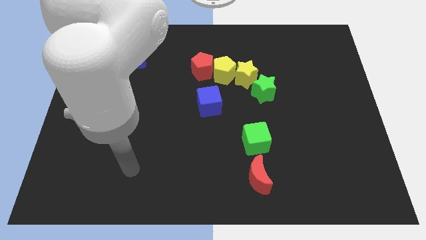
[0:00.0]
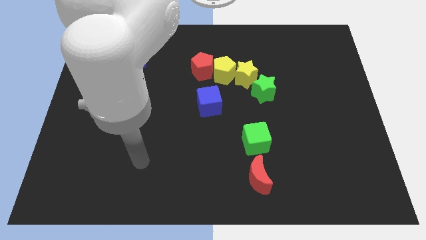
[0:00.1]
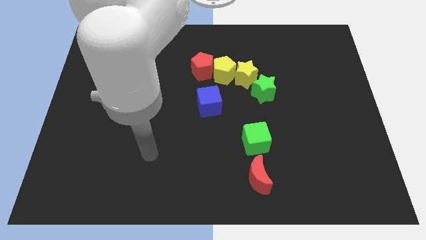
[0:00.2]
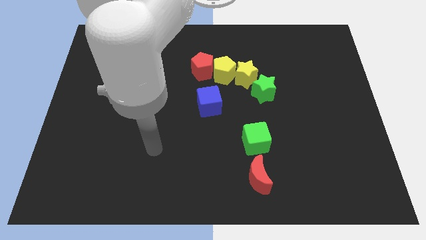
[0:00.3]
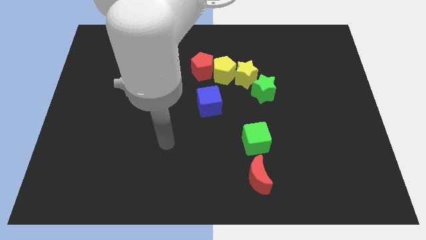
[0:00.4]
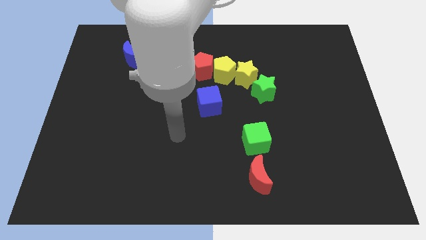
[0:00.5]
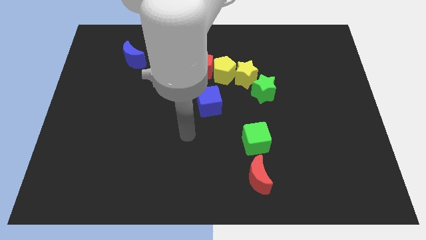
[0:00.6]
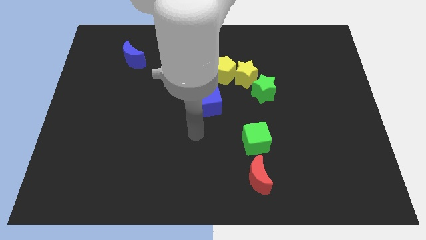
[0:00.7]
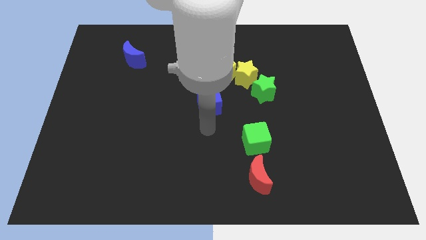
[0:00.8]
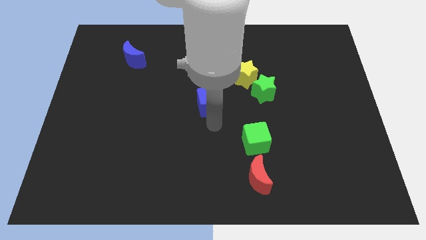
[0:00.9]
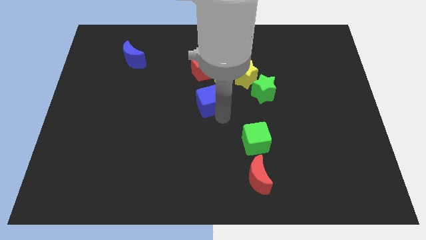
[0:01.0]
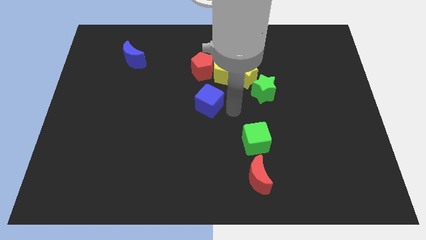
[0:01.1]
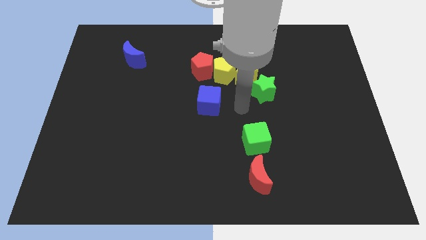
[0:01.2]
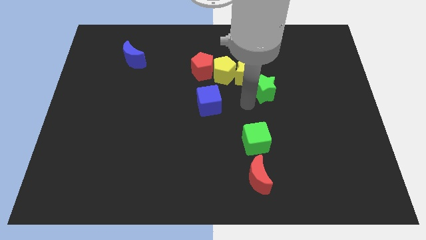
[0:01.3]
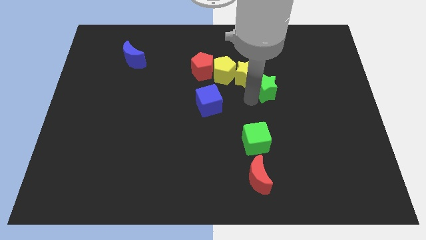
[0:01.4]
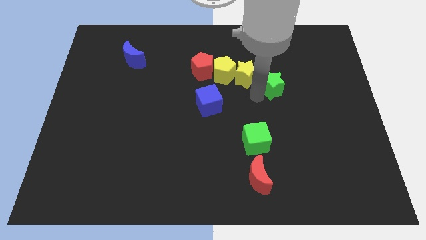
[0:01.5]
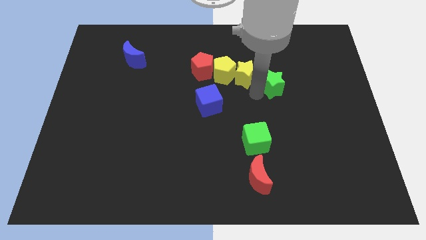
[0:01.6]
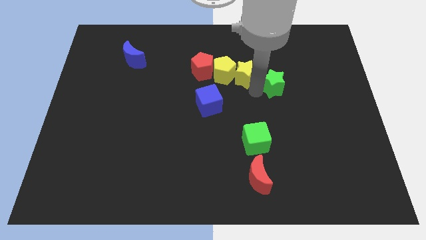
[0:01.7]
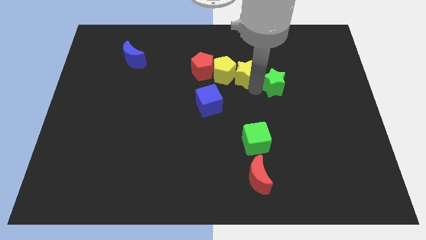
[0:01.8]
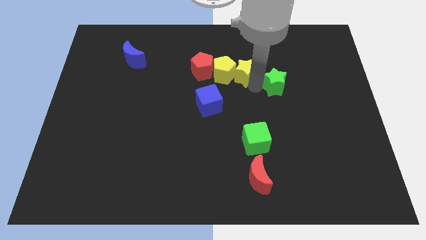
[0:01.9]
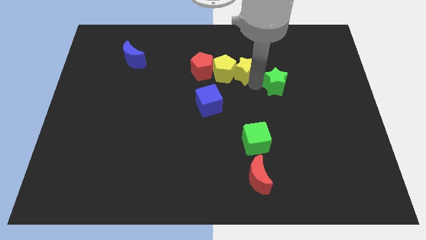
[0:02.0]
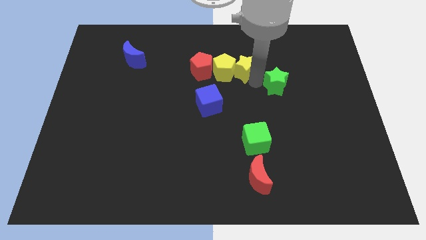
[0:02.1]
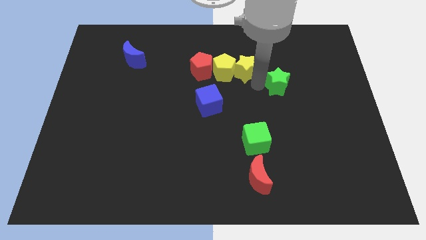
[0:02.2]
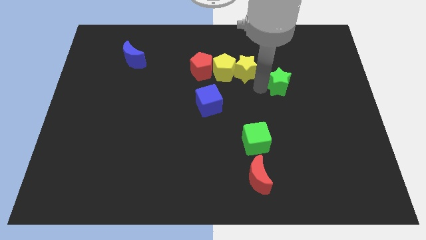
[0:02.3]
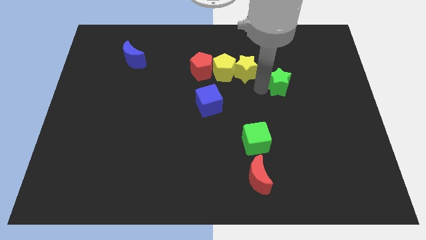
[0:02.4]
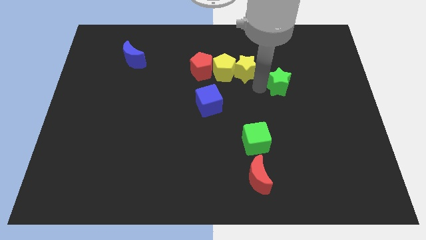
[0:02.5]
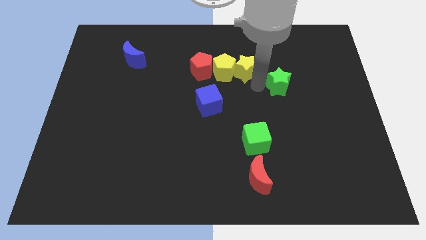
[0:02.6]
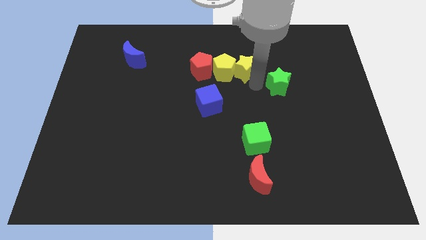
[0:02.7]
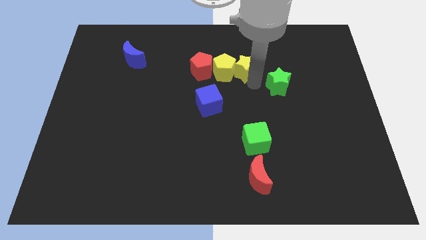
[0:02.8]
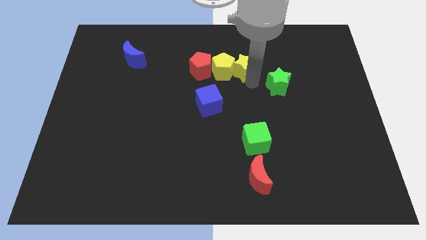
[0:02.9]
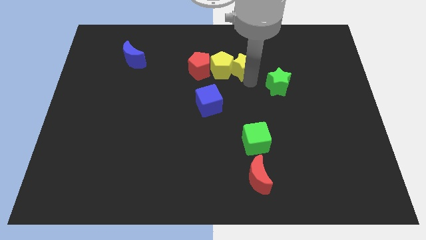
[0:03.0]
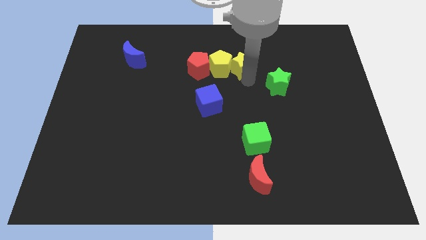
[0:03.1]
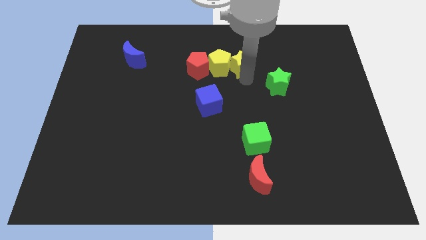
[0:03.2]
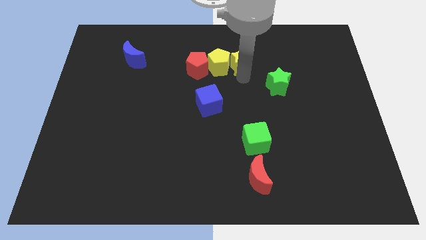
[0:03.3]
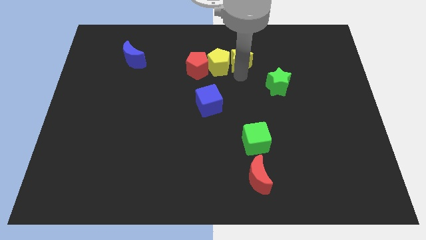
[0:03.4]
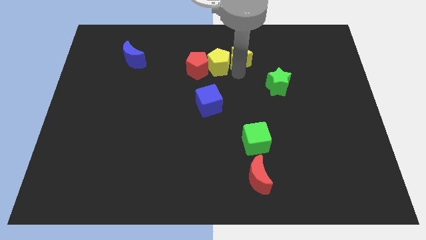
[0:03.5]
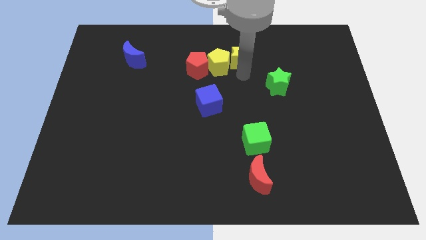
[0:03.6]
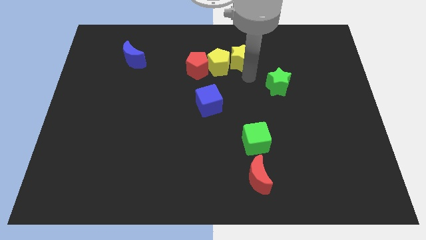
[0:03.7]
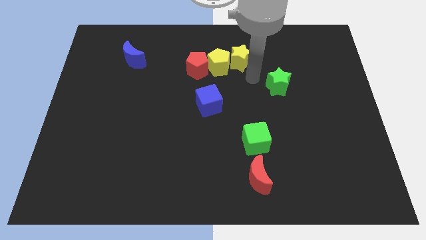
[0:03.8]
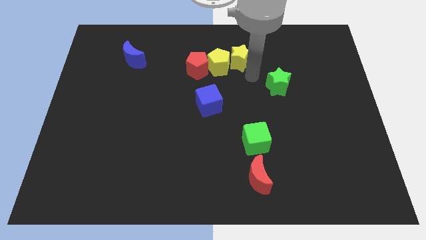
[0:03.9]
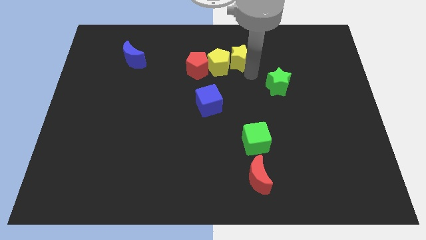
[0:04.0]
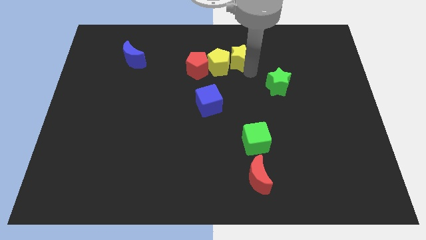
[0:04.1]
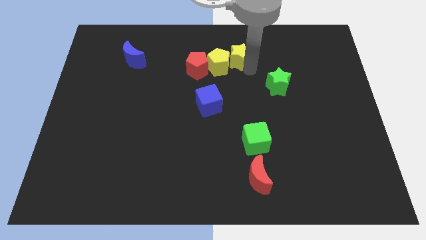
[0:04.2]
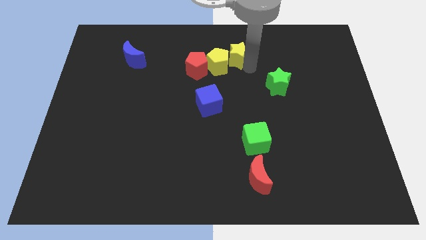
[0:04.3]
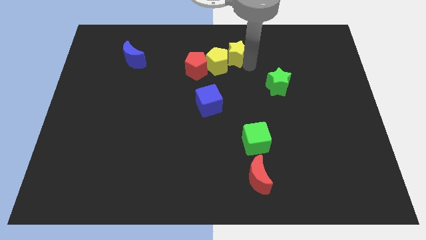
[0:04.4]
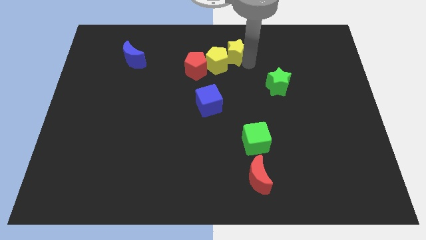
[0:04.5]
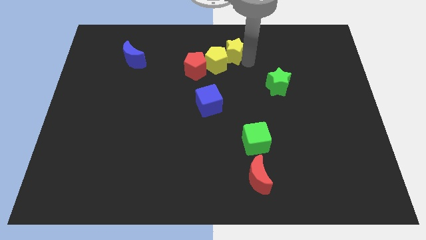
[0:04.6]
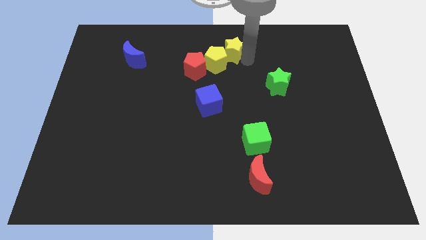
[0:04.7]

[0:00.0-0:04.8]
put the yellow star to the towards your base

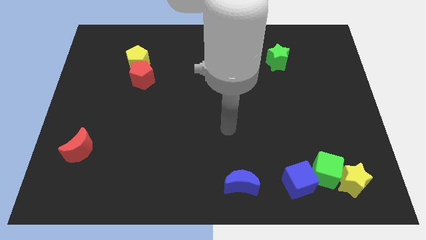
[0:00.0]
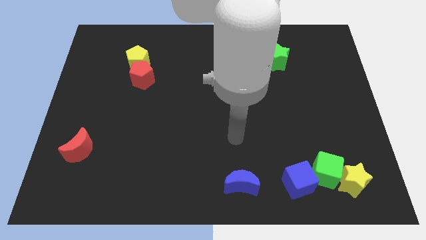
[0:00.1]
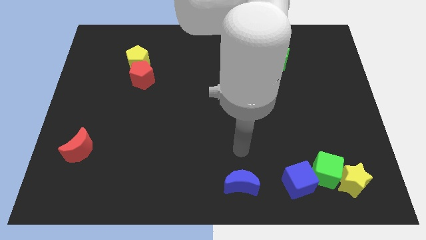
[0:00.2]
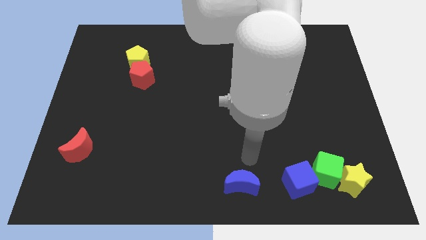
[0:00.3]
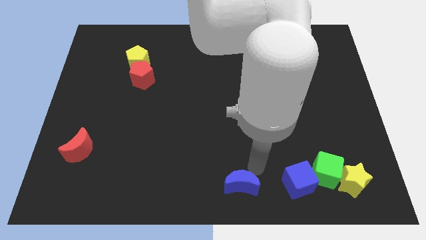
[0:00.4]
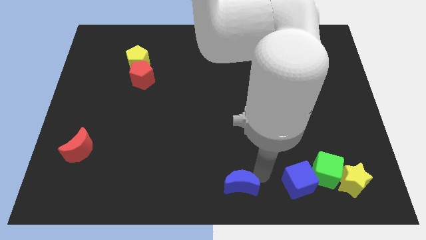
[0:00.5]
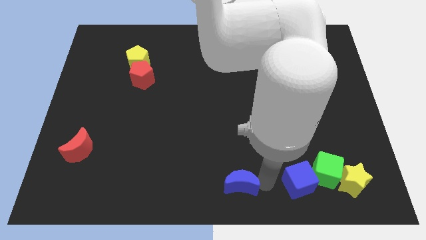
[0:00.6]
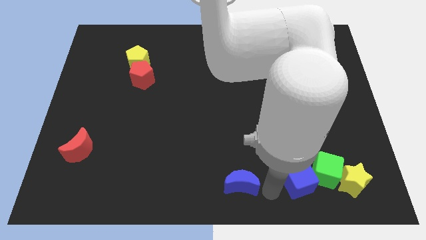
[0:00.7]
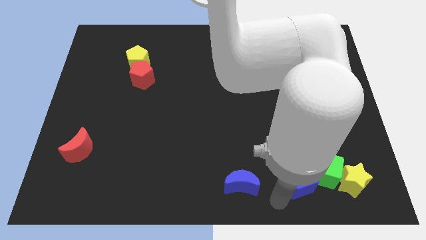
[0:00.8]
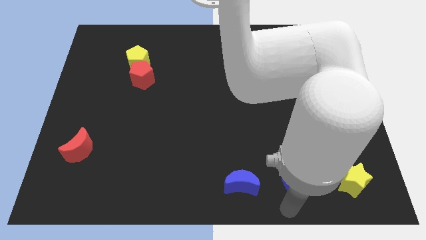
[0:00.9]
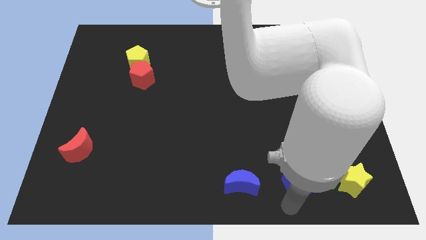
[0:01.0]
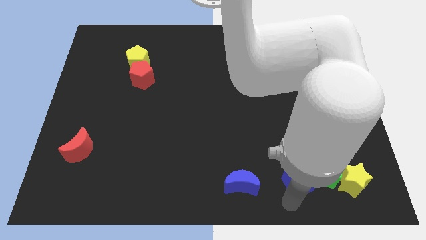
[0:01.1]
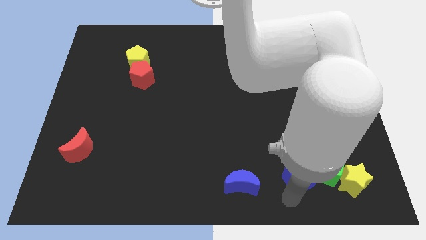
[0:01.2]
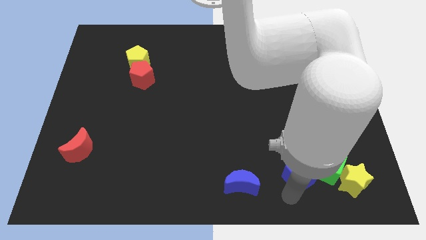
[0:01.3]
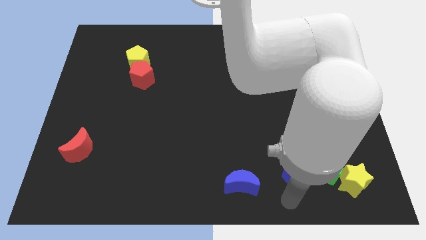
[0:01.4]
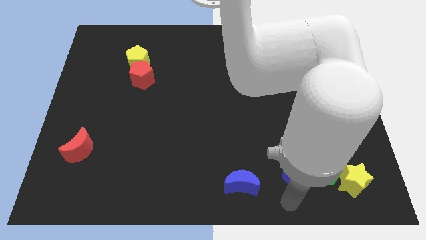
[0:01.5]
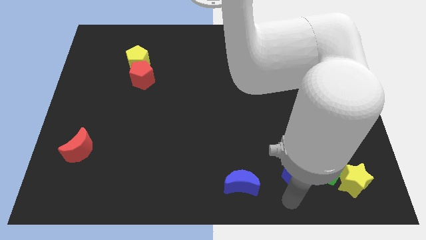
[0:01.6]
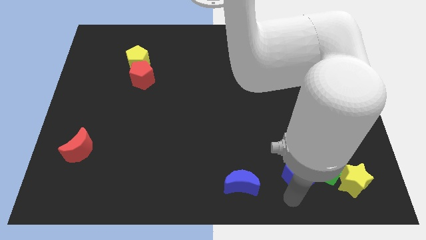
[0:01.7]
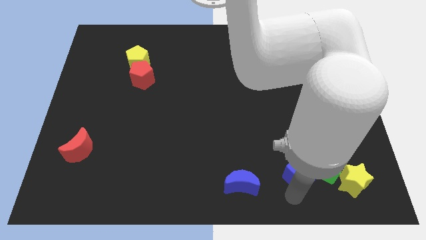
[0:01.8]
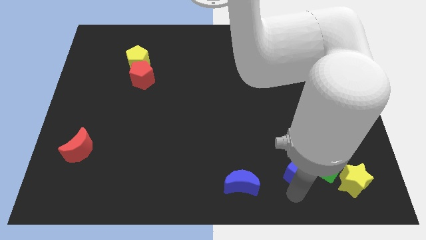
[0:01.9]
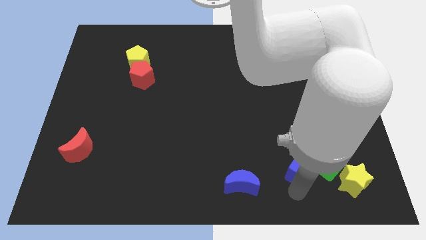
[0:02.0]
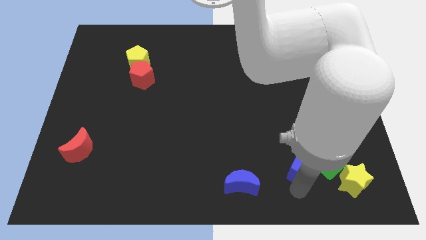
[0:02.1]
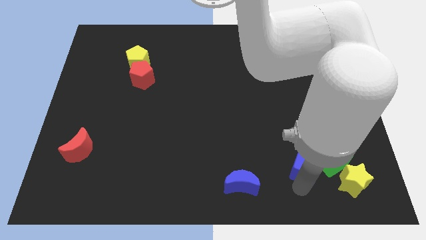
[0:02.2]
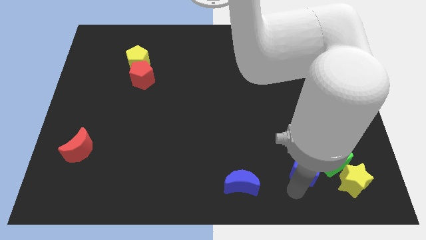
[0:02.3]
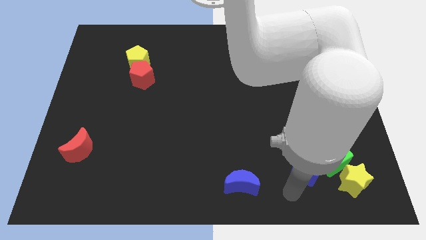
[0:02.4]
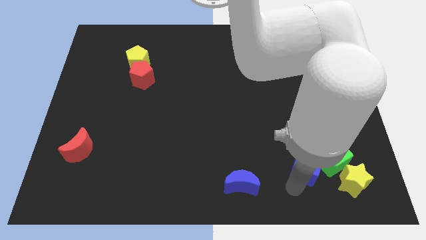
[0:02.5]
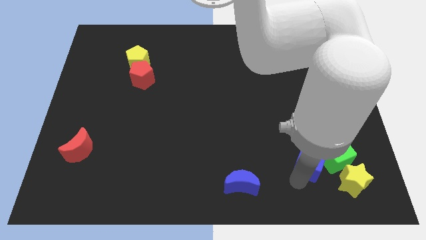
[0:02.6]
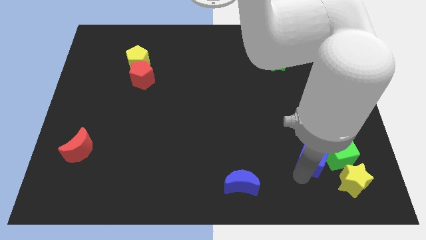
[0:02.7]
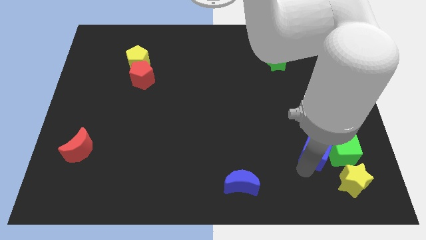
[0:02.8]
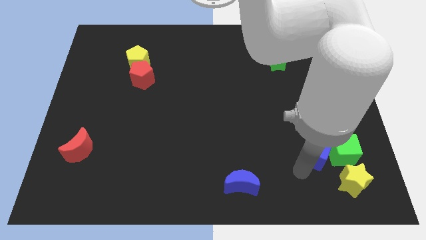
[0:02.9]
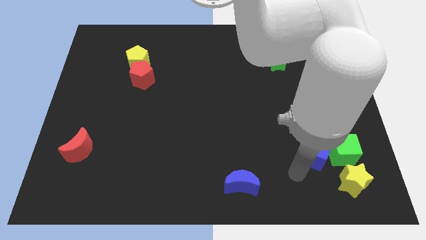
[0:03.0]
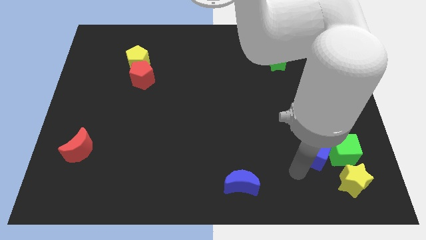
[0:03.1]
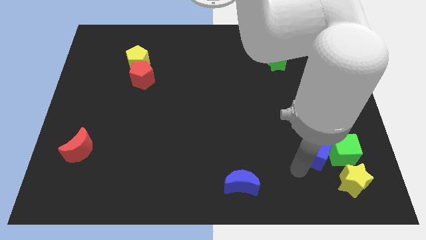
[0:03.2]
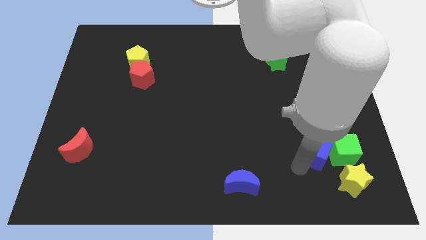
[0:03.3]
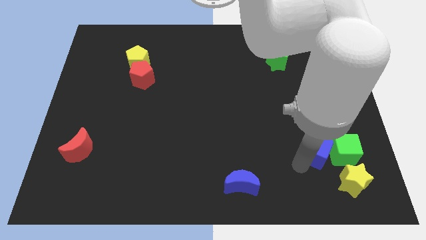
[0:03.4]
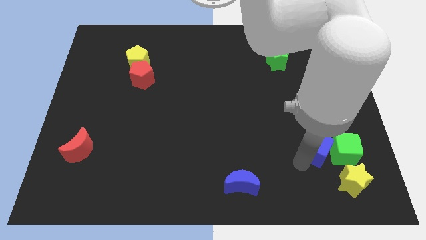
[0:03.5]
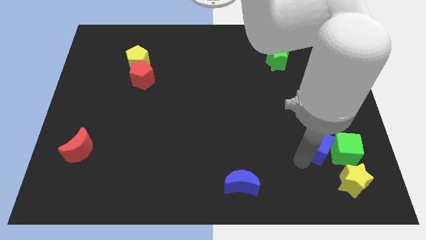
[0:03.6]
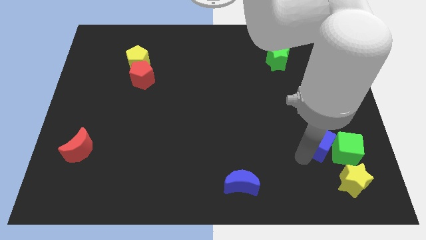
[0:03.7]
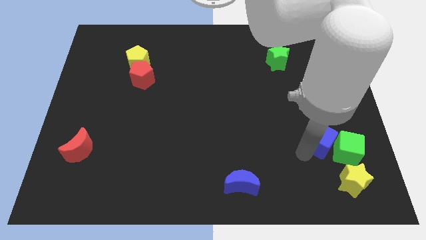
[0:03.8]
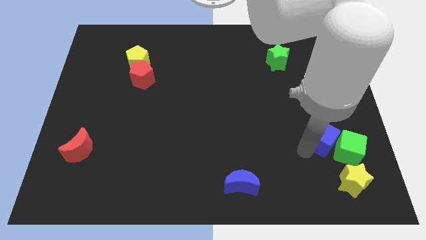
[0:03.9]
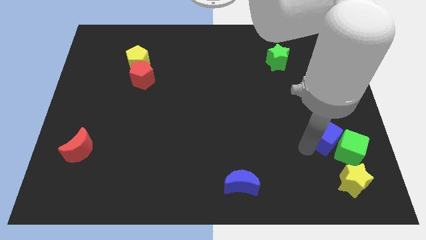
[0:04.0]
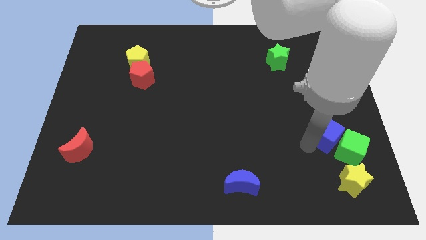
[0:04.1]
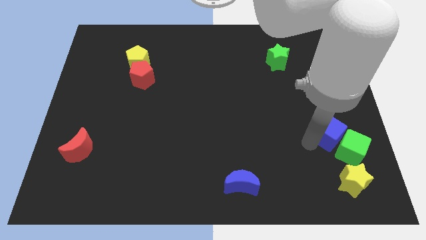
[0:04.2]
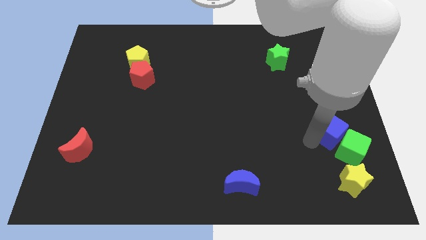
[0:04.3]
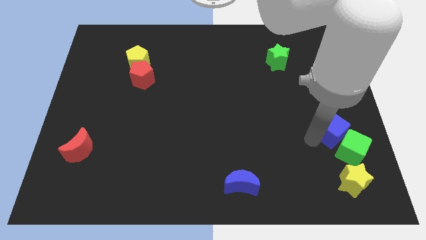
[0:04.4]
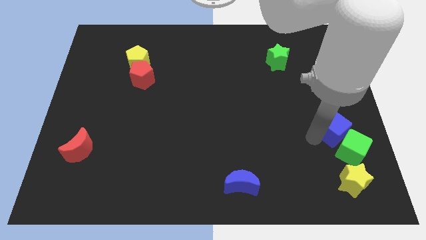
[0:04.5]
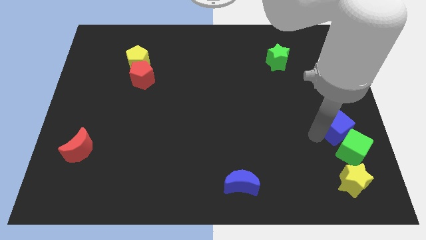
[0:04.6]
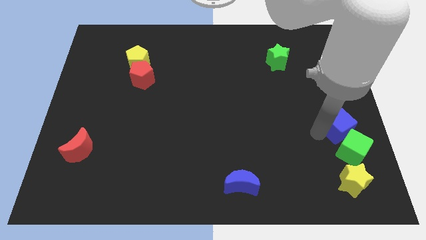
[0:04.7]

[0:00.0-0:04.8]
push the blue cube to the right side
